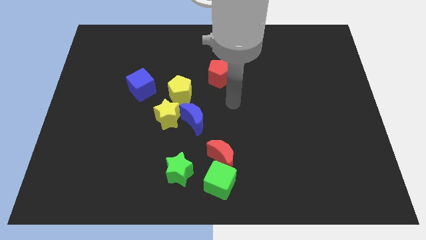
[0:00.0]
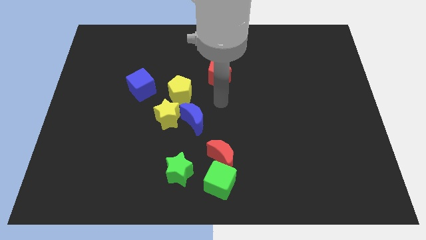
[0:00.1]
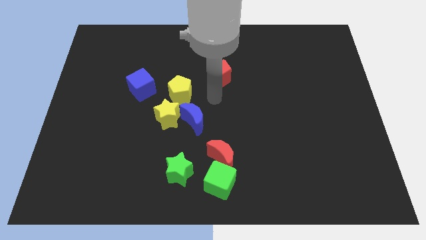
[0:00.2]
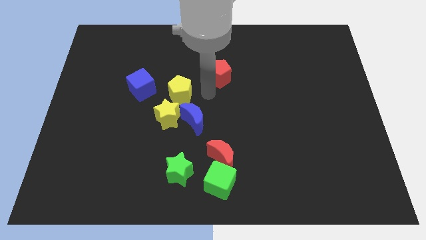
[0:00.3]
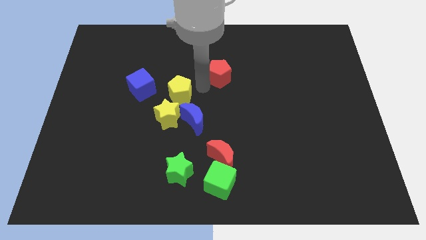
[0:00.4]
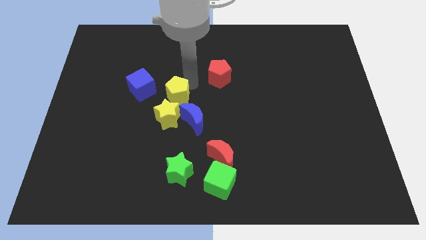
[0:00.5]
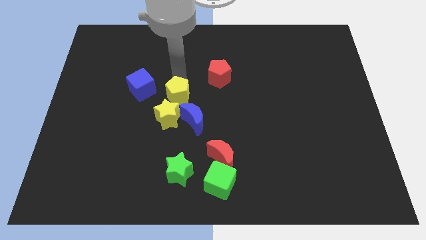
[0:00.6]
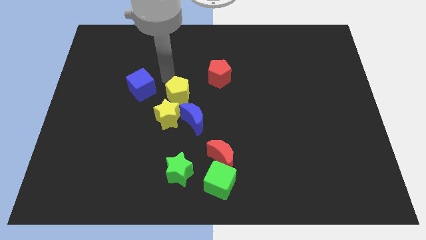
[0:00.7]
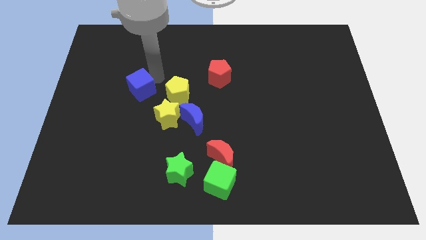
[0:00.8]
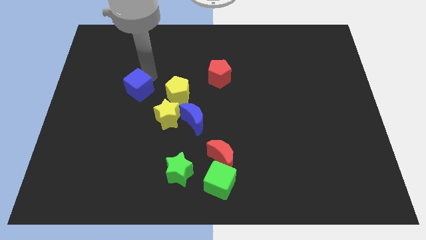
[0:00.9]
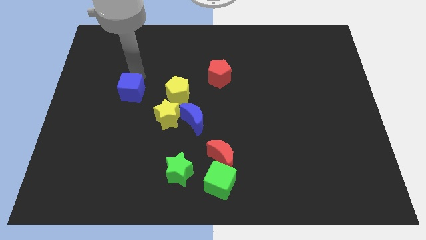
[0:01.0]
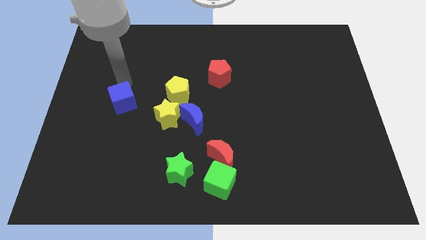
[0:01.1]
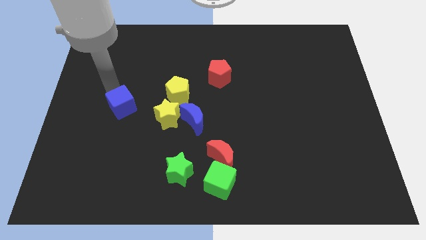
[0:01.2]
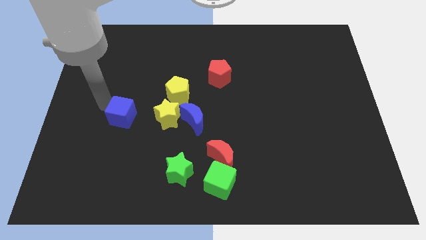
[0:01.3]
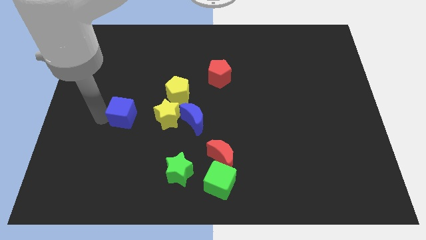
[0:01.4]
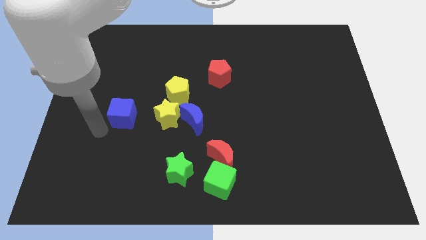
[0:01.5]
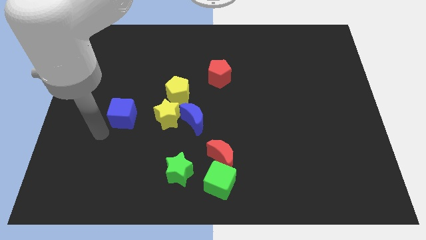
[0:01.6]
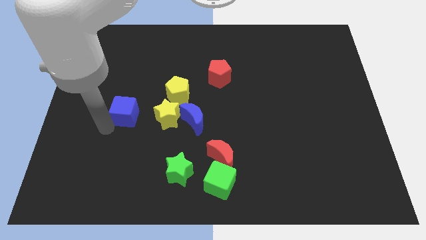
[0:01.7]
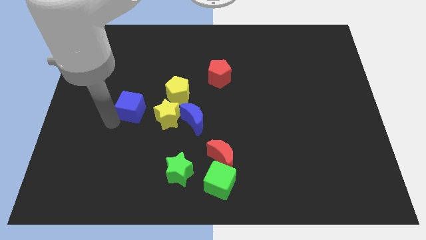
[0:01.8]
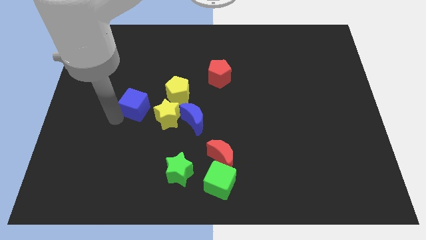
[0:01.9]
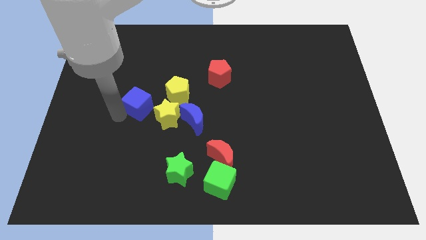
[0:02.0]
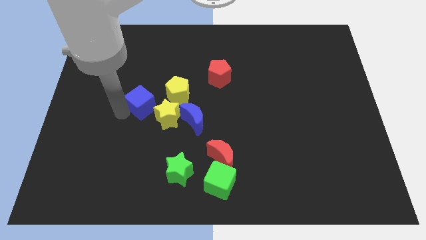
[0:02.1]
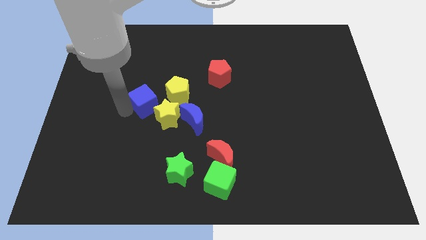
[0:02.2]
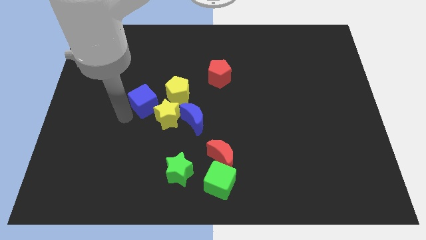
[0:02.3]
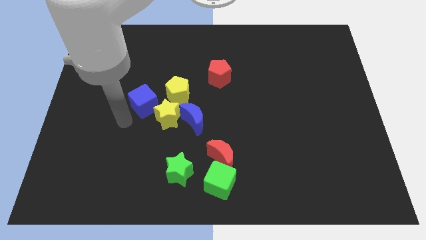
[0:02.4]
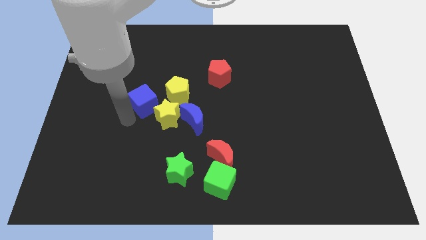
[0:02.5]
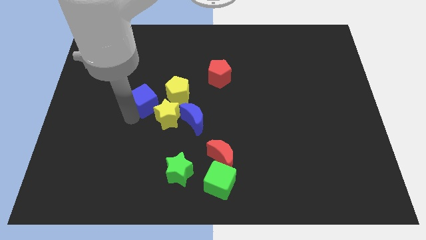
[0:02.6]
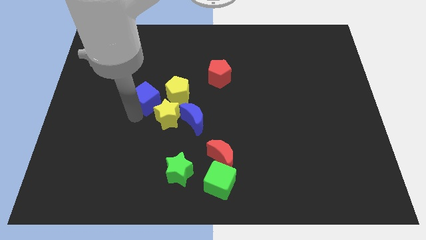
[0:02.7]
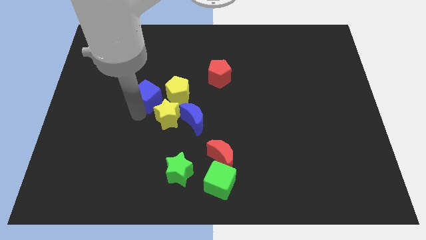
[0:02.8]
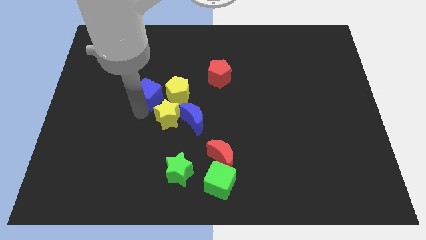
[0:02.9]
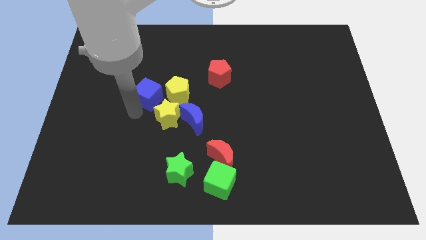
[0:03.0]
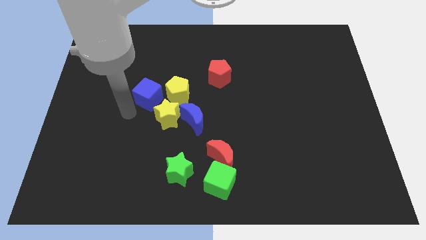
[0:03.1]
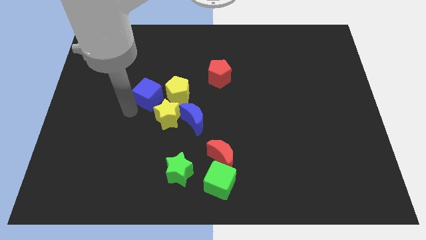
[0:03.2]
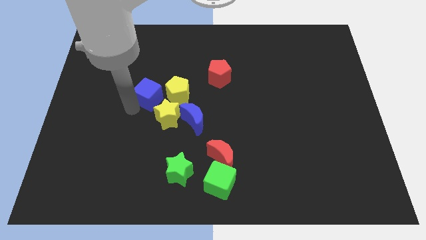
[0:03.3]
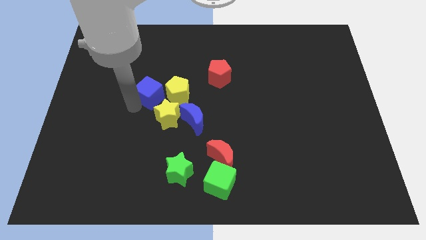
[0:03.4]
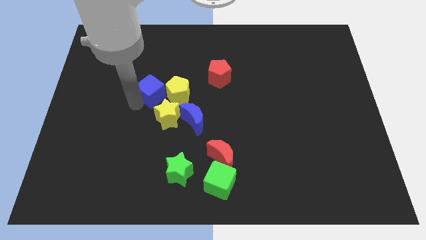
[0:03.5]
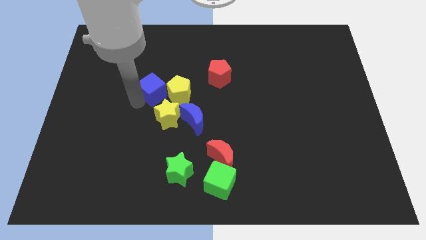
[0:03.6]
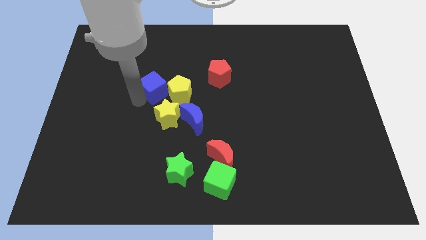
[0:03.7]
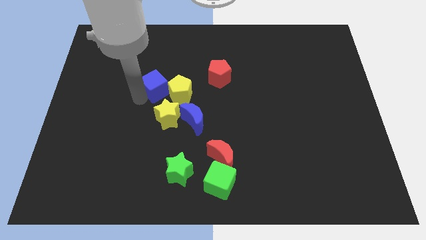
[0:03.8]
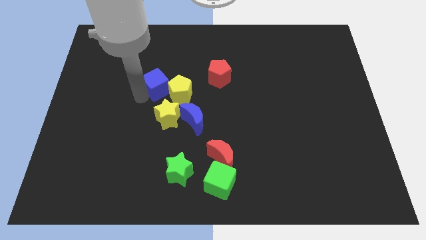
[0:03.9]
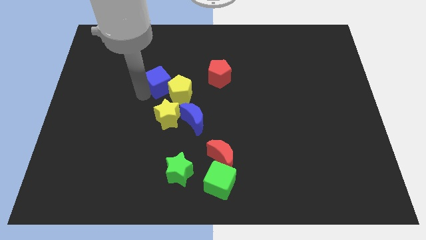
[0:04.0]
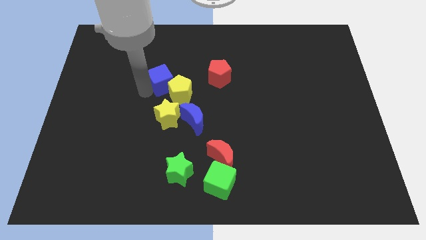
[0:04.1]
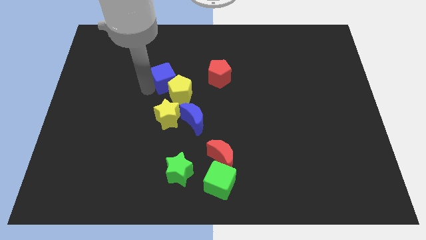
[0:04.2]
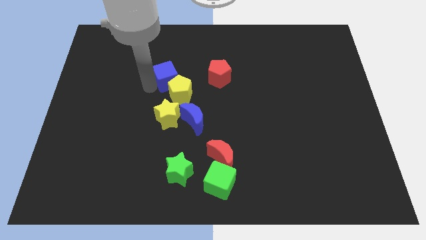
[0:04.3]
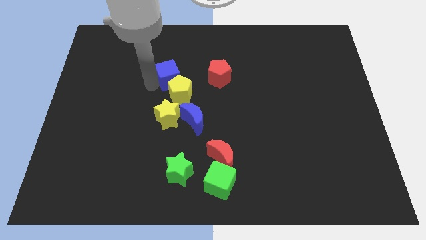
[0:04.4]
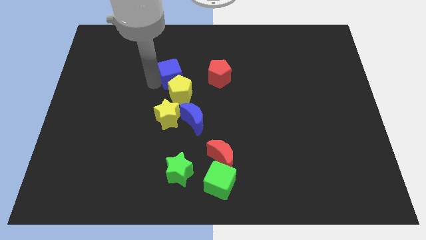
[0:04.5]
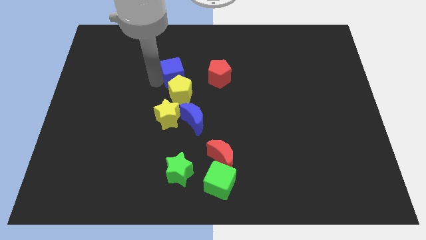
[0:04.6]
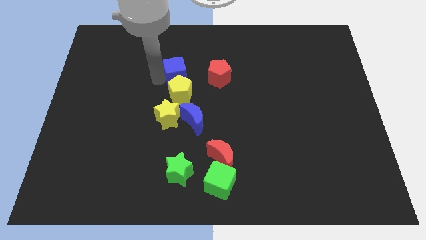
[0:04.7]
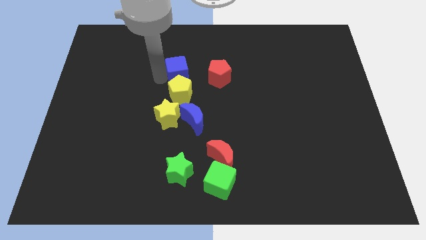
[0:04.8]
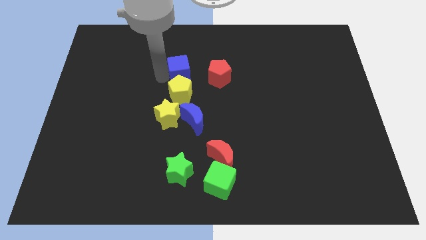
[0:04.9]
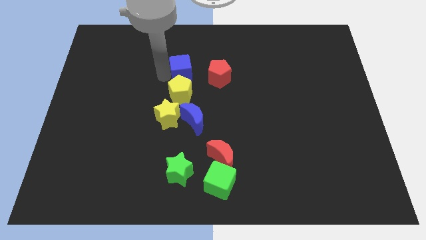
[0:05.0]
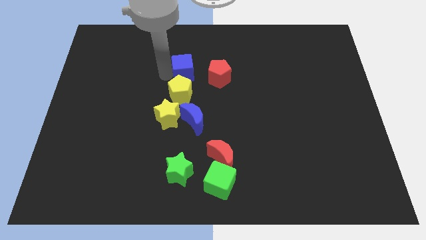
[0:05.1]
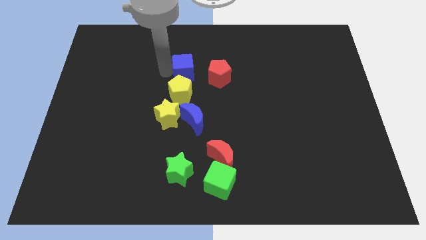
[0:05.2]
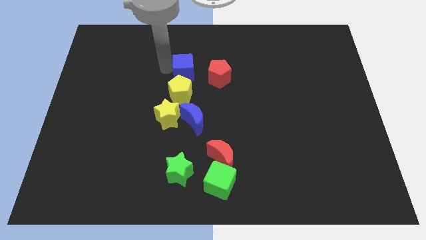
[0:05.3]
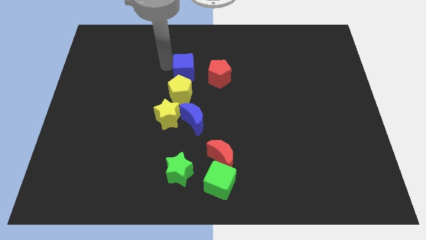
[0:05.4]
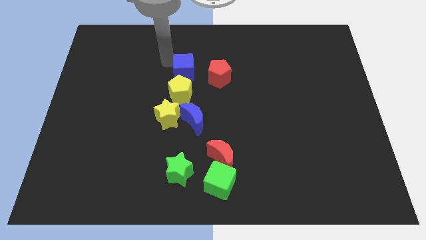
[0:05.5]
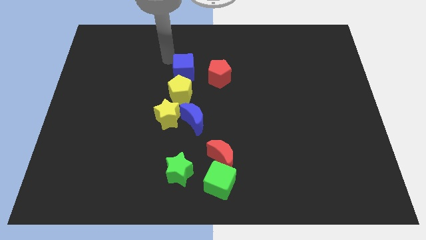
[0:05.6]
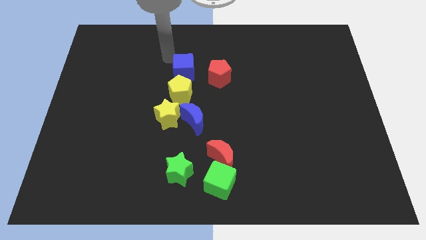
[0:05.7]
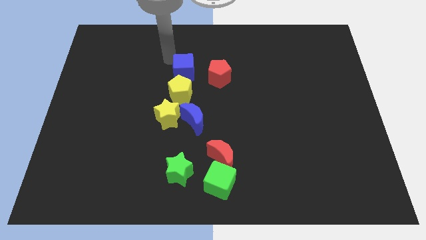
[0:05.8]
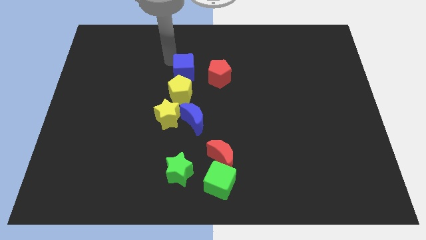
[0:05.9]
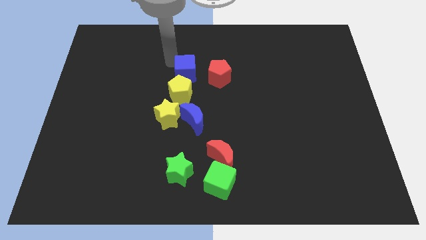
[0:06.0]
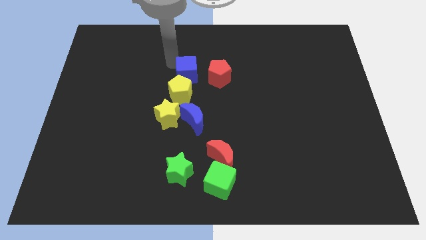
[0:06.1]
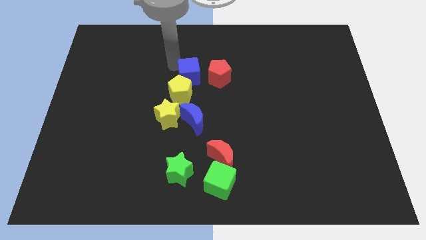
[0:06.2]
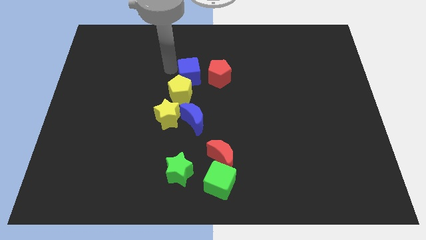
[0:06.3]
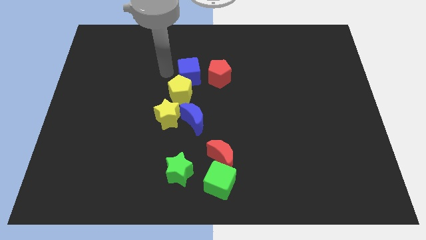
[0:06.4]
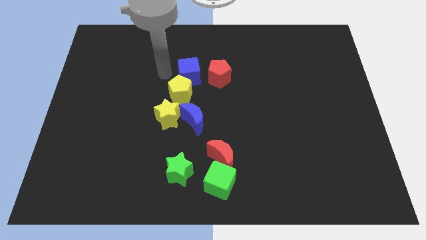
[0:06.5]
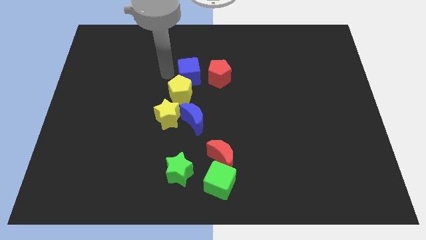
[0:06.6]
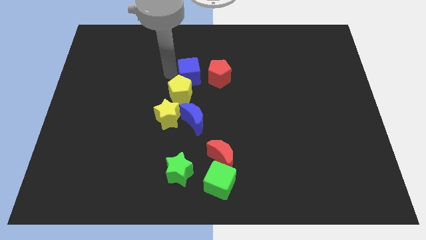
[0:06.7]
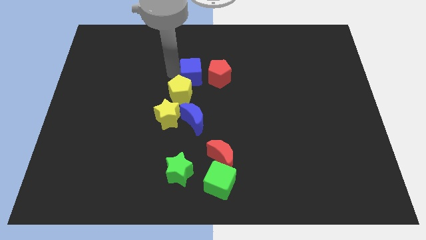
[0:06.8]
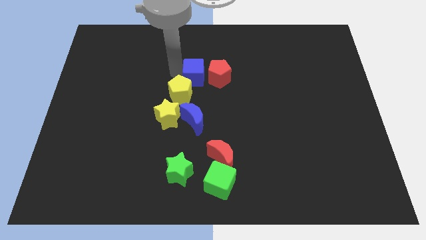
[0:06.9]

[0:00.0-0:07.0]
put the blue cube to the red pentagon

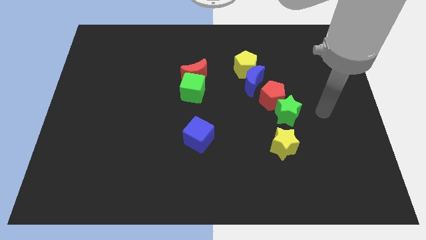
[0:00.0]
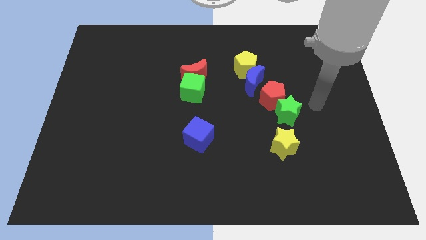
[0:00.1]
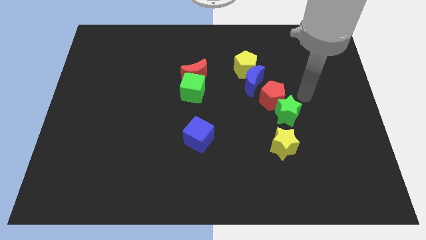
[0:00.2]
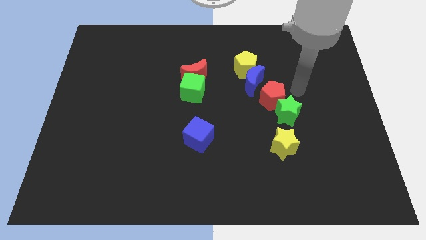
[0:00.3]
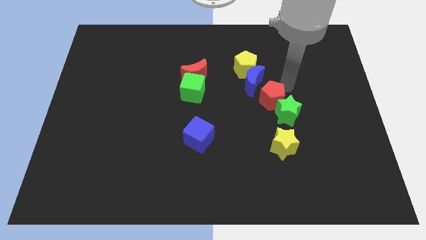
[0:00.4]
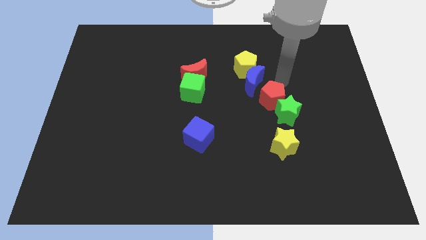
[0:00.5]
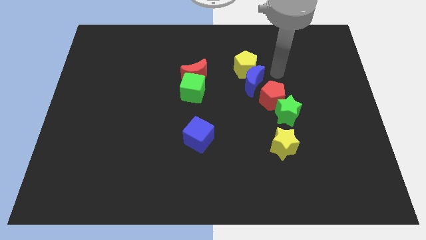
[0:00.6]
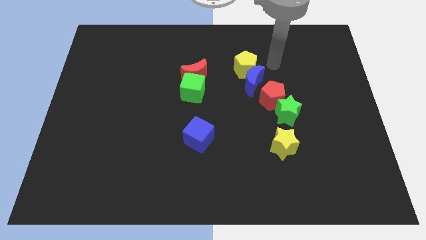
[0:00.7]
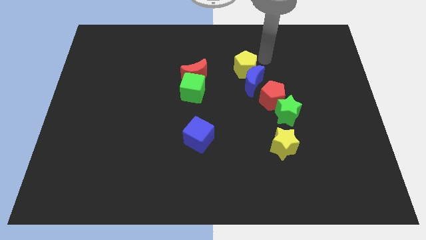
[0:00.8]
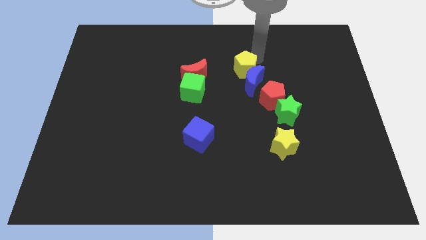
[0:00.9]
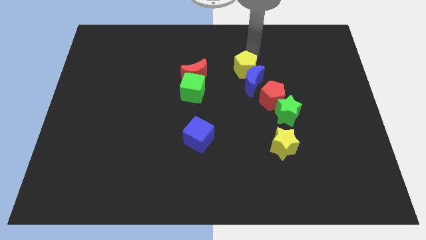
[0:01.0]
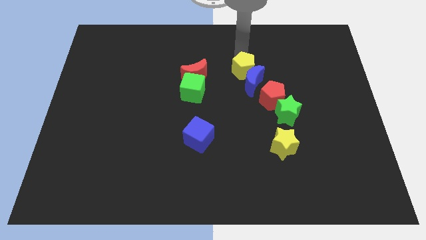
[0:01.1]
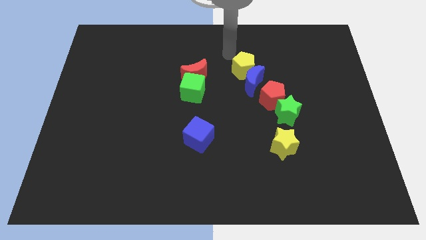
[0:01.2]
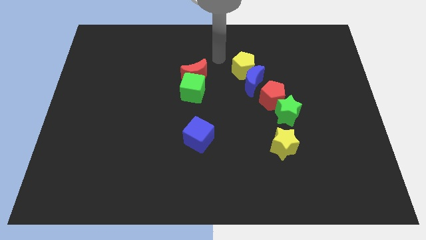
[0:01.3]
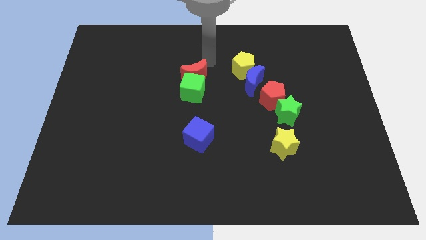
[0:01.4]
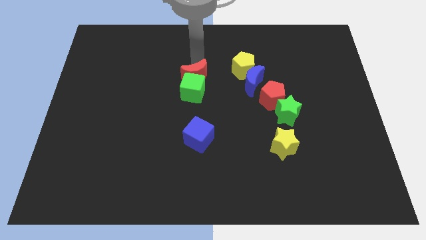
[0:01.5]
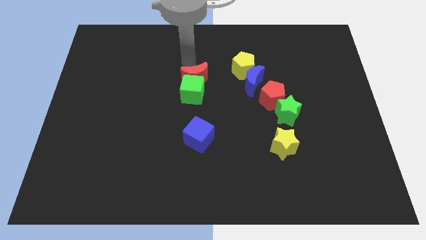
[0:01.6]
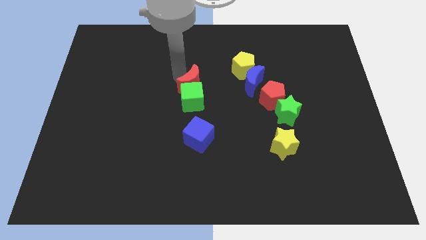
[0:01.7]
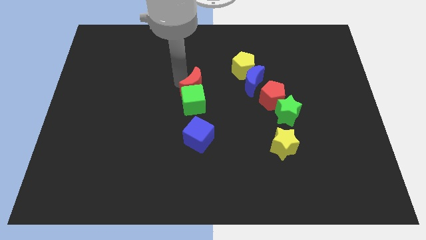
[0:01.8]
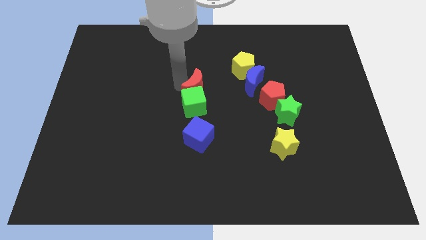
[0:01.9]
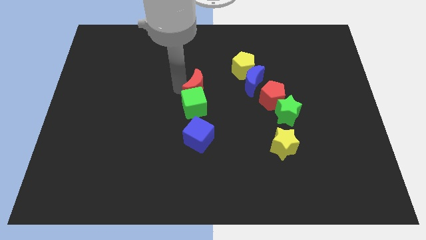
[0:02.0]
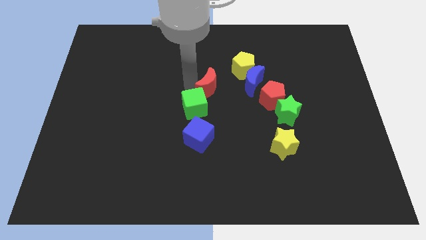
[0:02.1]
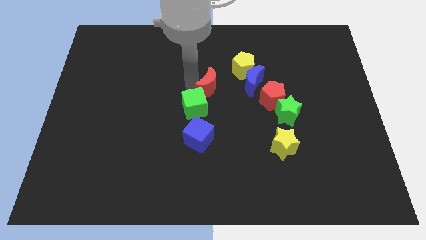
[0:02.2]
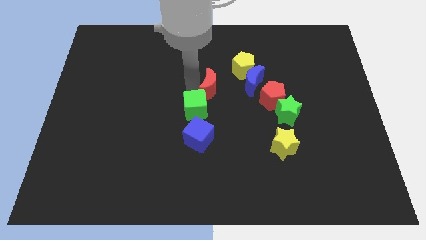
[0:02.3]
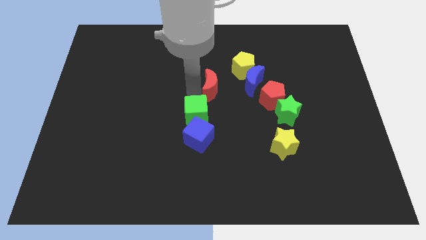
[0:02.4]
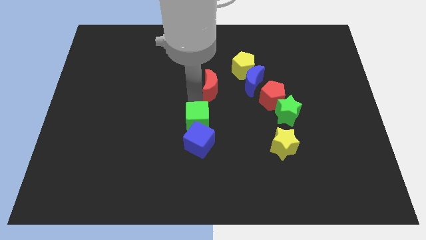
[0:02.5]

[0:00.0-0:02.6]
slide the green cube close to the blue cube
